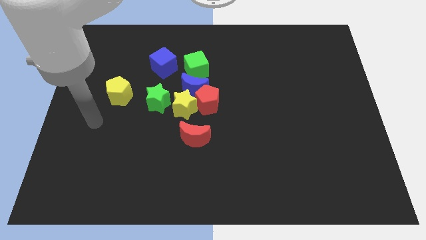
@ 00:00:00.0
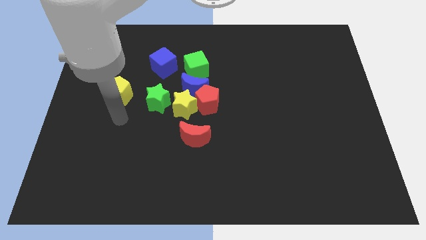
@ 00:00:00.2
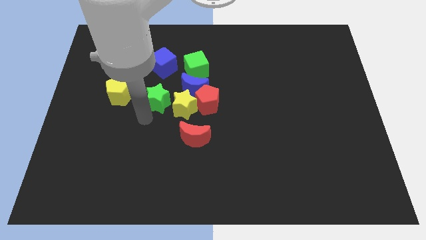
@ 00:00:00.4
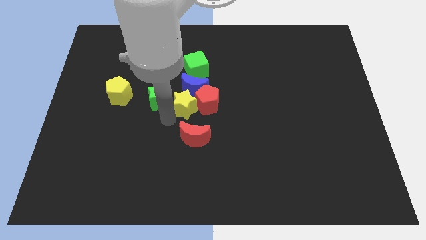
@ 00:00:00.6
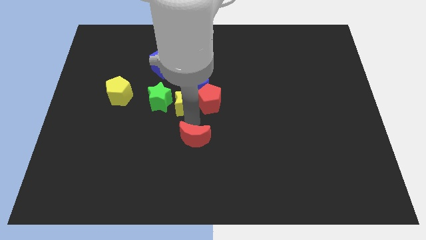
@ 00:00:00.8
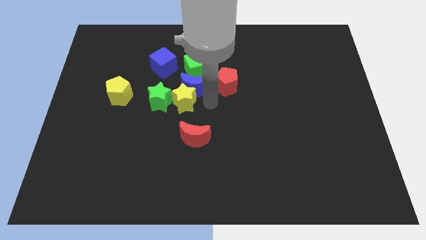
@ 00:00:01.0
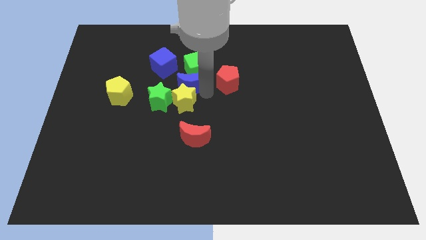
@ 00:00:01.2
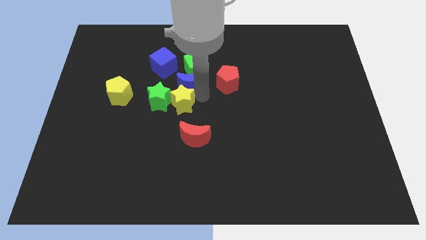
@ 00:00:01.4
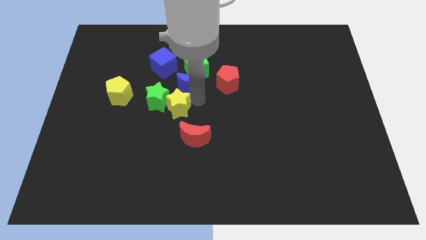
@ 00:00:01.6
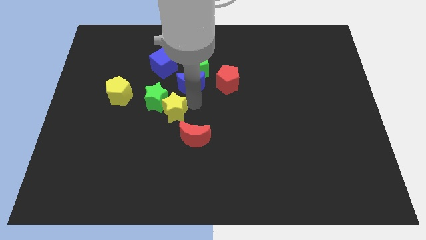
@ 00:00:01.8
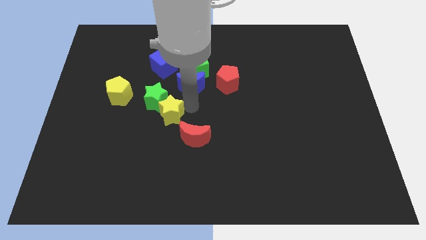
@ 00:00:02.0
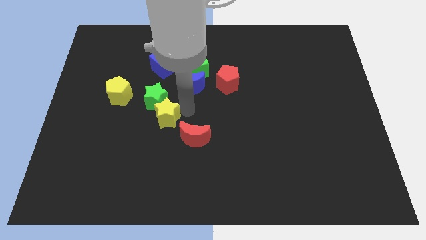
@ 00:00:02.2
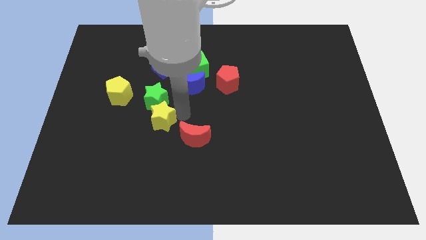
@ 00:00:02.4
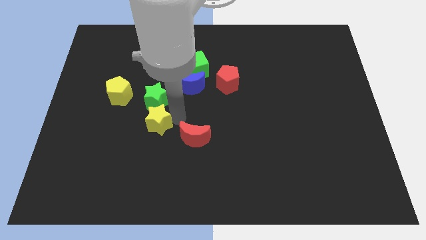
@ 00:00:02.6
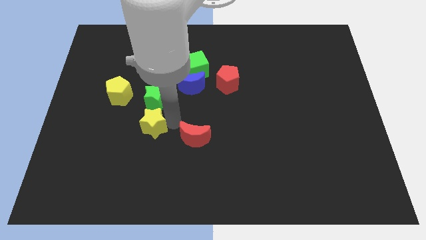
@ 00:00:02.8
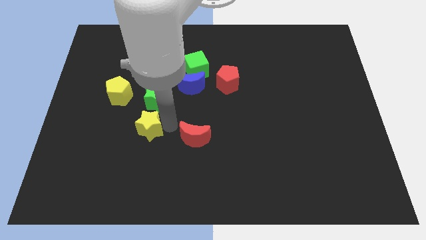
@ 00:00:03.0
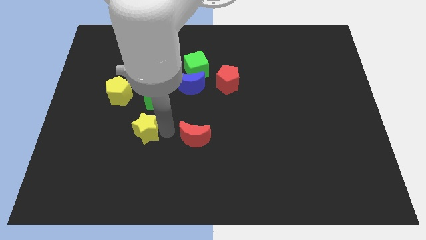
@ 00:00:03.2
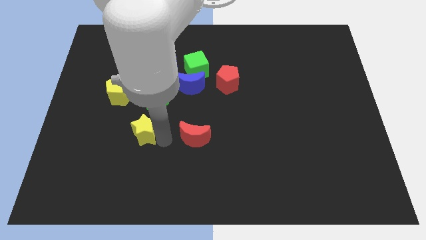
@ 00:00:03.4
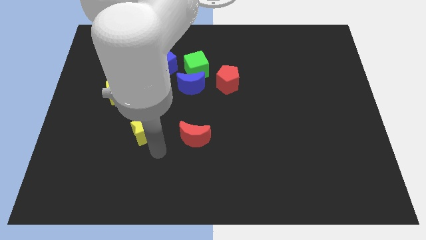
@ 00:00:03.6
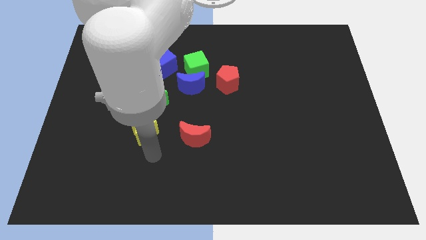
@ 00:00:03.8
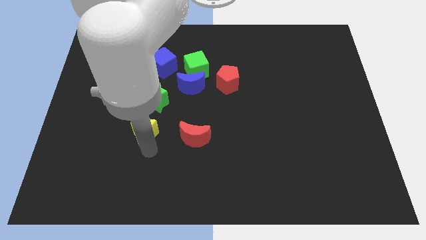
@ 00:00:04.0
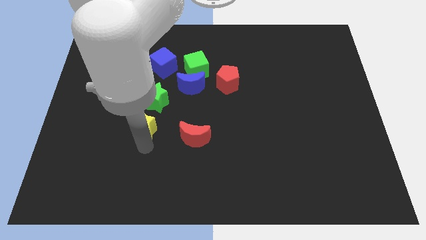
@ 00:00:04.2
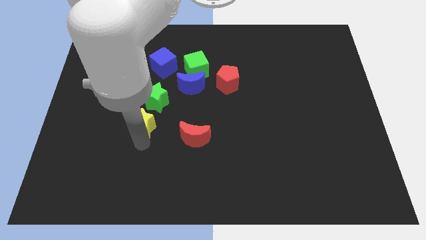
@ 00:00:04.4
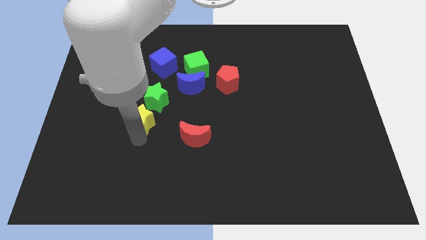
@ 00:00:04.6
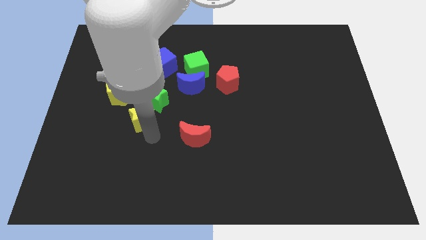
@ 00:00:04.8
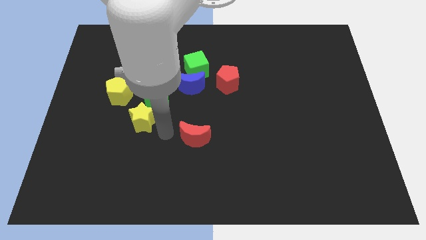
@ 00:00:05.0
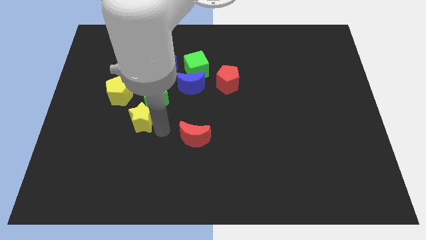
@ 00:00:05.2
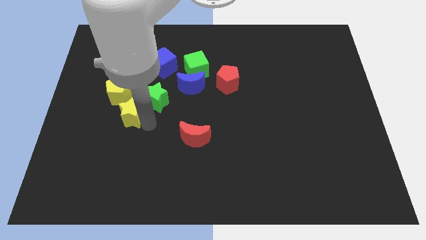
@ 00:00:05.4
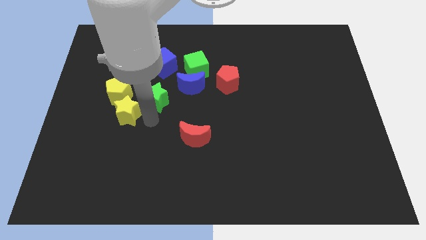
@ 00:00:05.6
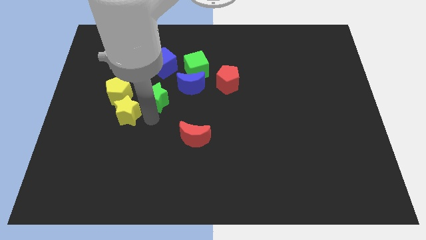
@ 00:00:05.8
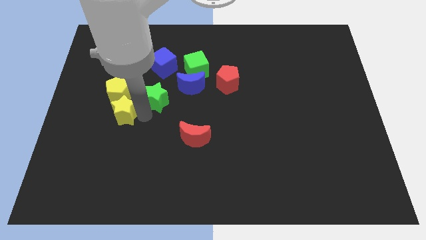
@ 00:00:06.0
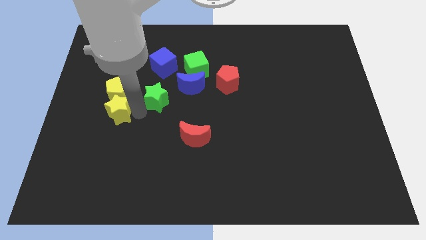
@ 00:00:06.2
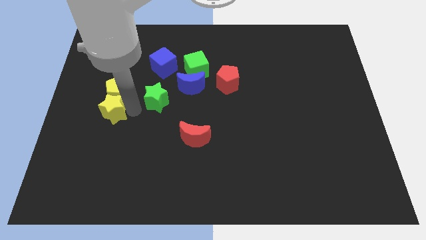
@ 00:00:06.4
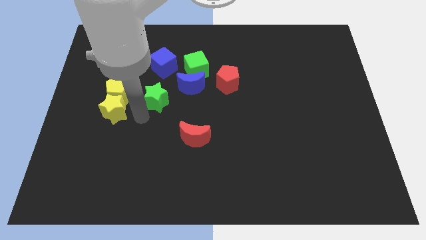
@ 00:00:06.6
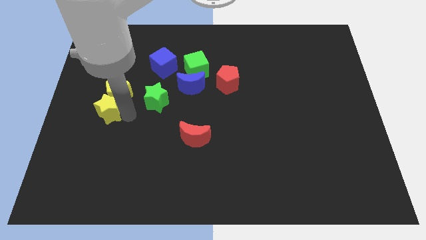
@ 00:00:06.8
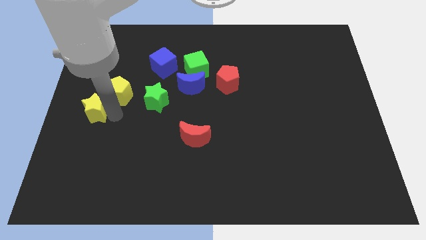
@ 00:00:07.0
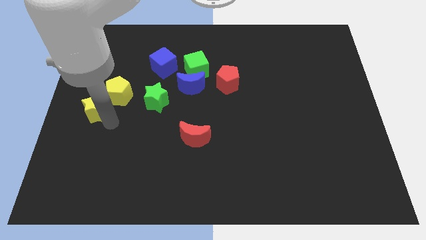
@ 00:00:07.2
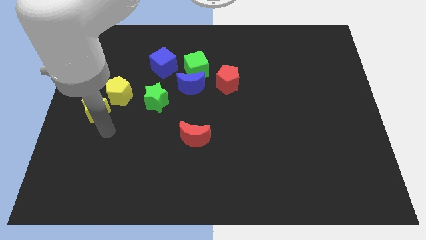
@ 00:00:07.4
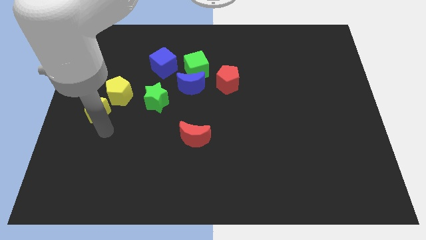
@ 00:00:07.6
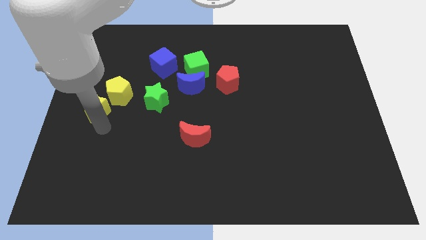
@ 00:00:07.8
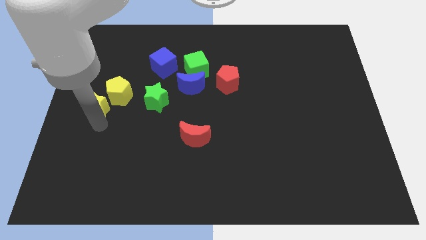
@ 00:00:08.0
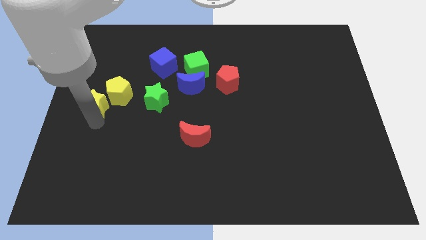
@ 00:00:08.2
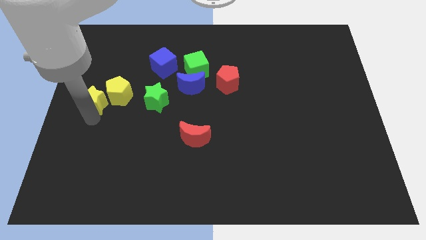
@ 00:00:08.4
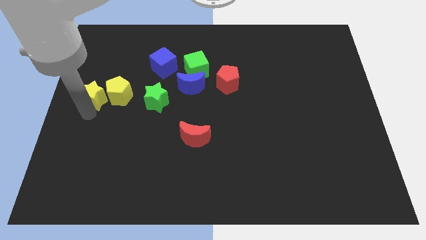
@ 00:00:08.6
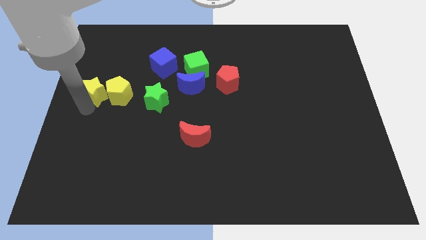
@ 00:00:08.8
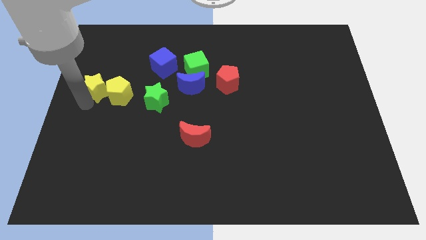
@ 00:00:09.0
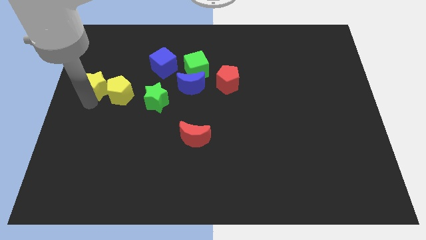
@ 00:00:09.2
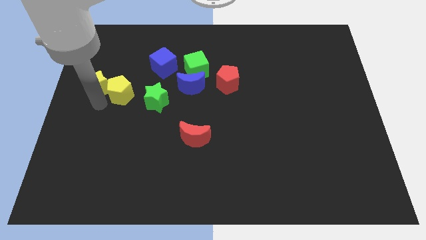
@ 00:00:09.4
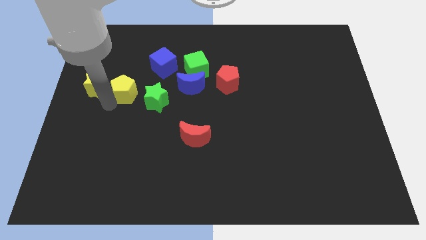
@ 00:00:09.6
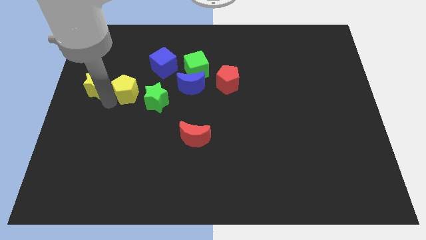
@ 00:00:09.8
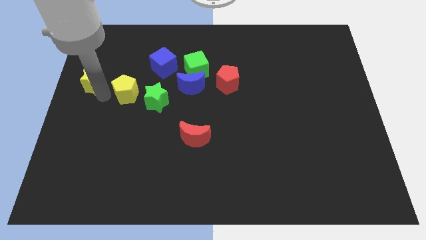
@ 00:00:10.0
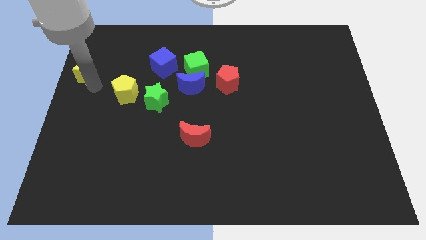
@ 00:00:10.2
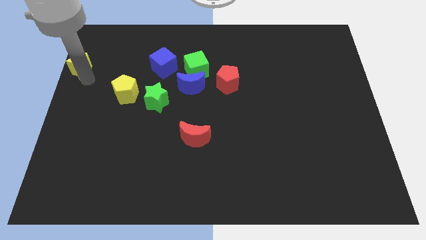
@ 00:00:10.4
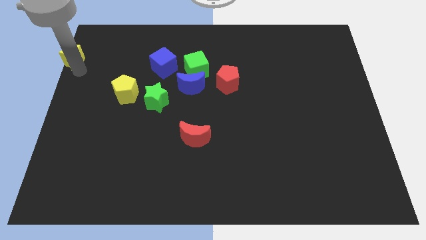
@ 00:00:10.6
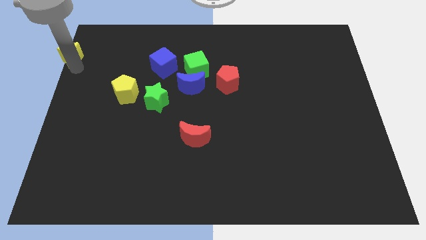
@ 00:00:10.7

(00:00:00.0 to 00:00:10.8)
push the yellow star to the upper left corner

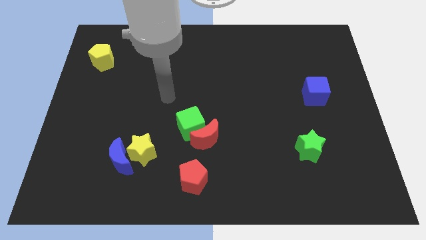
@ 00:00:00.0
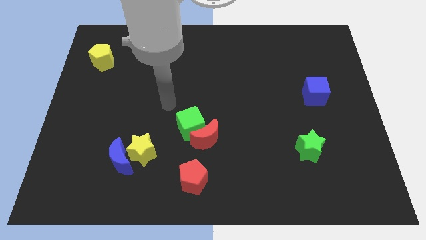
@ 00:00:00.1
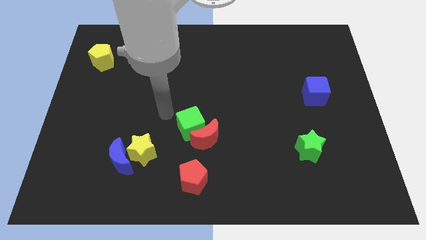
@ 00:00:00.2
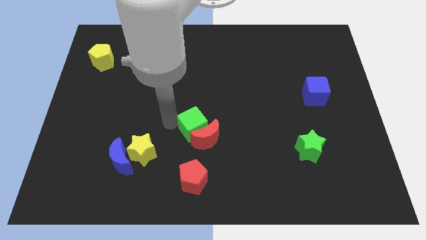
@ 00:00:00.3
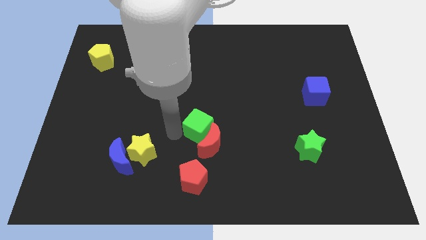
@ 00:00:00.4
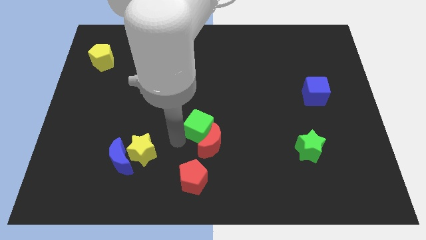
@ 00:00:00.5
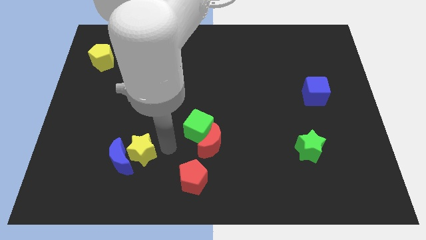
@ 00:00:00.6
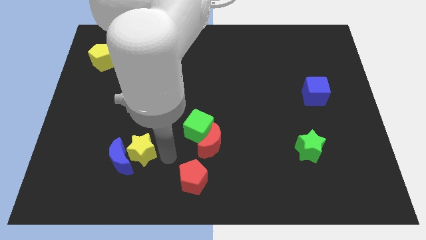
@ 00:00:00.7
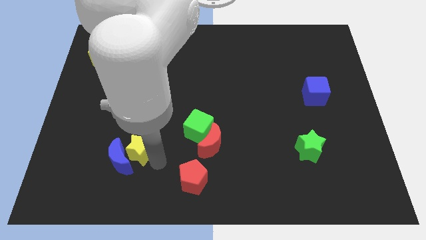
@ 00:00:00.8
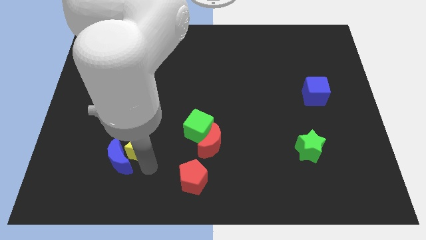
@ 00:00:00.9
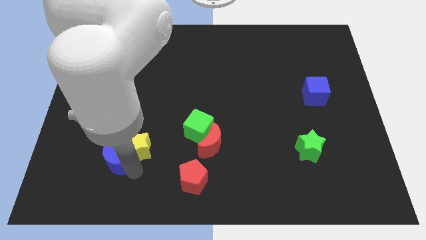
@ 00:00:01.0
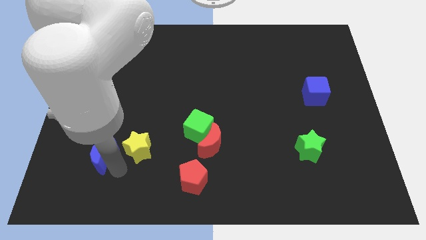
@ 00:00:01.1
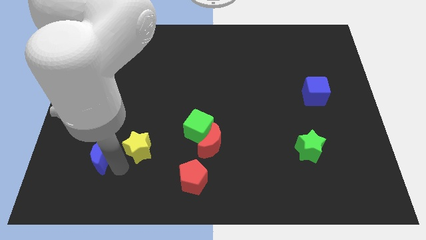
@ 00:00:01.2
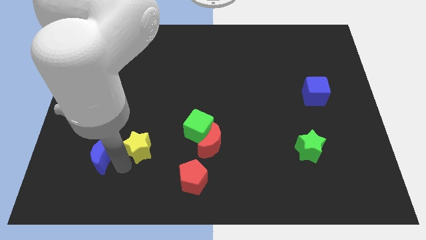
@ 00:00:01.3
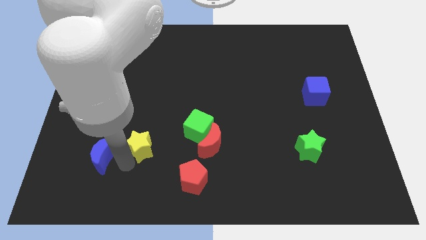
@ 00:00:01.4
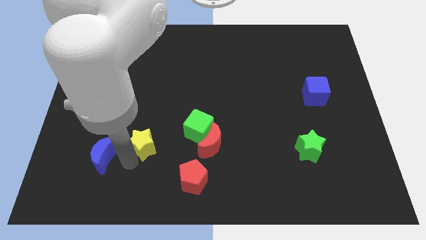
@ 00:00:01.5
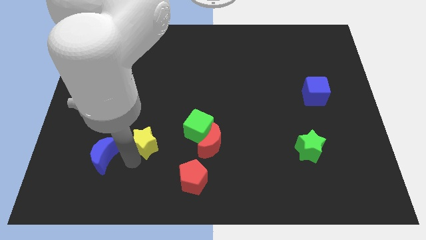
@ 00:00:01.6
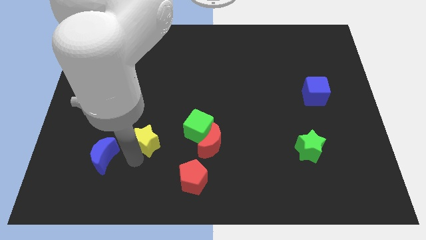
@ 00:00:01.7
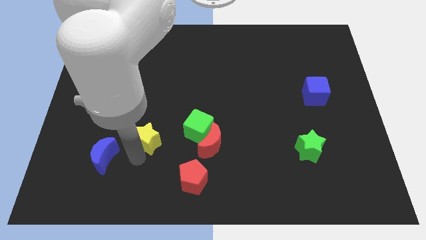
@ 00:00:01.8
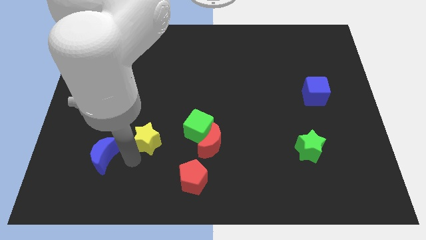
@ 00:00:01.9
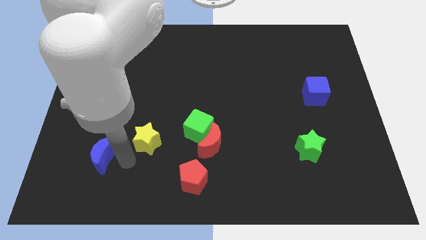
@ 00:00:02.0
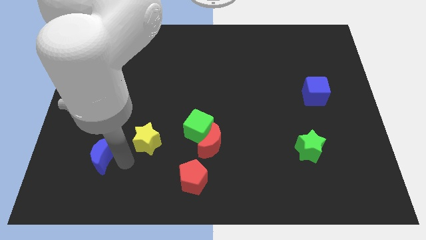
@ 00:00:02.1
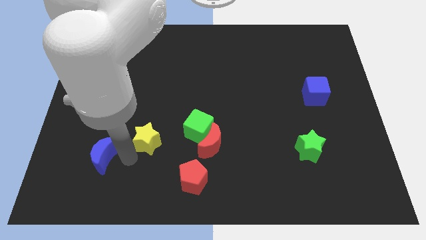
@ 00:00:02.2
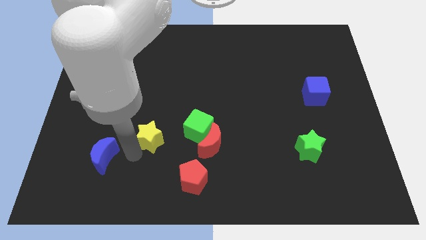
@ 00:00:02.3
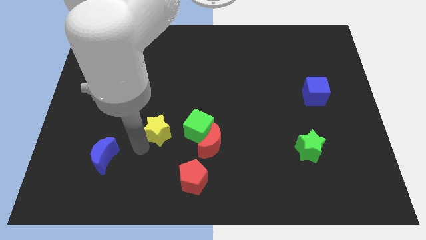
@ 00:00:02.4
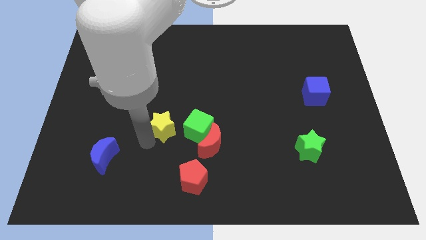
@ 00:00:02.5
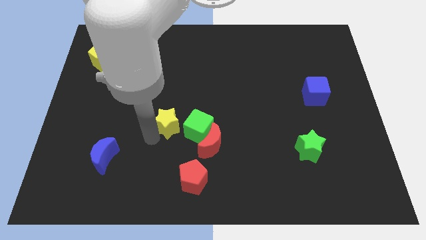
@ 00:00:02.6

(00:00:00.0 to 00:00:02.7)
move the yellow star to the middle
